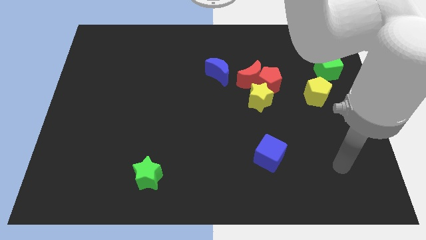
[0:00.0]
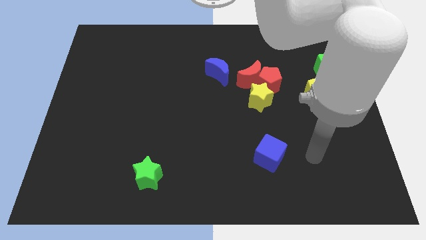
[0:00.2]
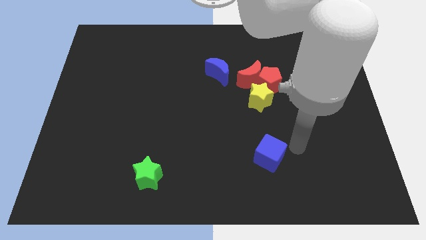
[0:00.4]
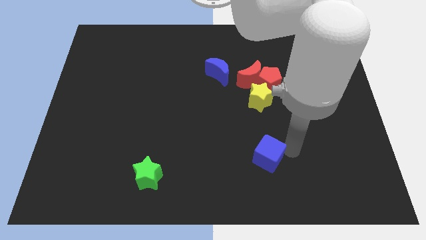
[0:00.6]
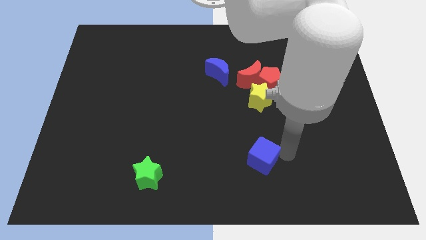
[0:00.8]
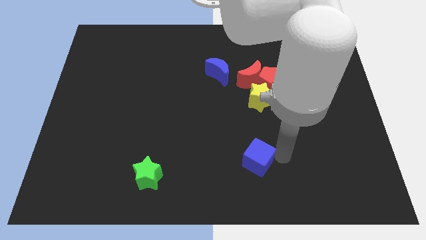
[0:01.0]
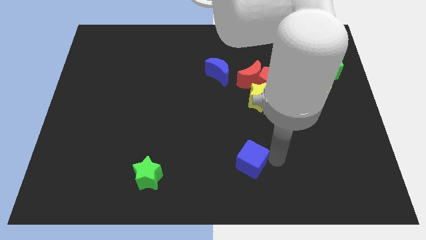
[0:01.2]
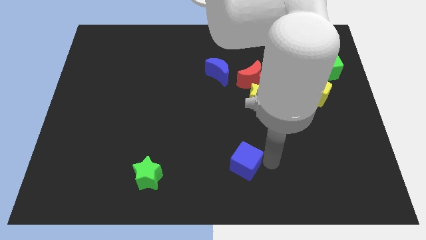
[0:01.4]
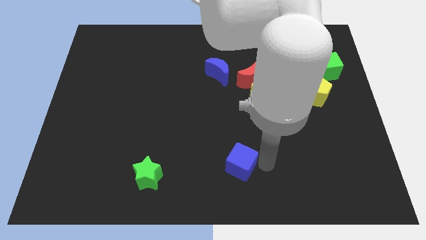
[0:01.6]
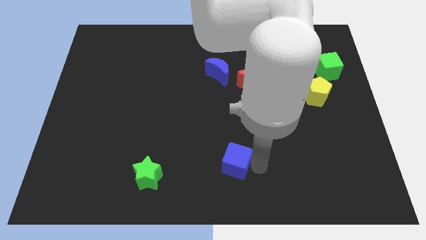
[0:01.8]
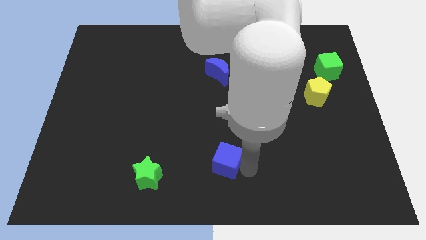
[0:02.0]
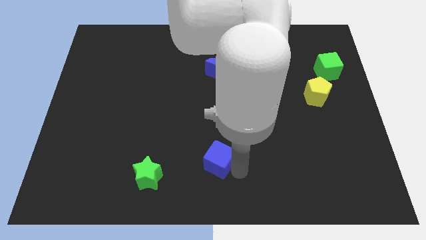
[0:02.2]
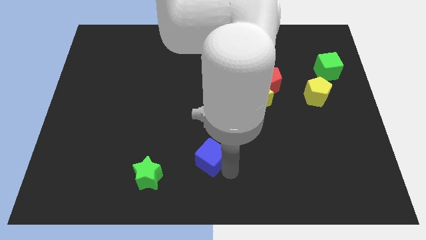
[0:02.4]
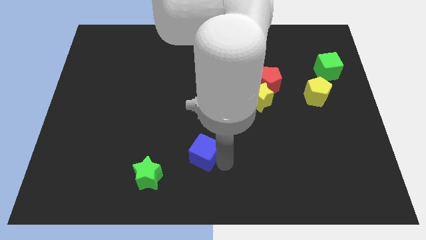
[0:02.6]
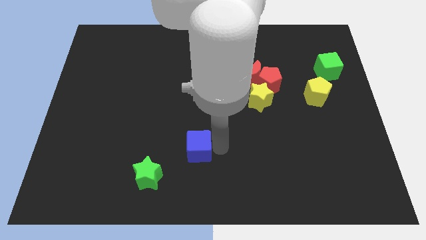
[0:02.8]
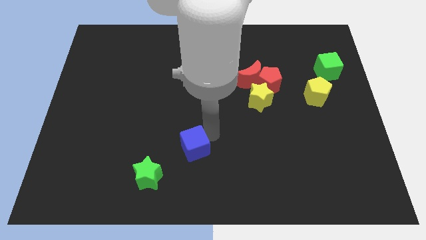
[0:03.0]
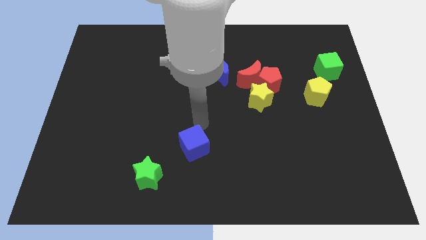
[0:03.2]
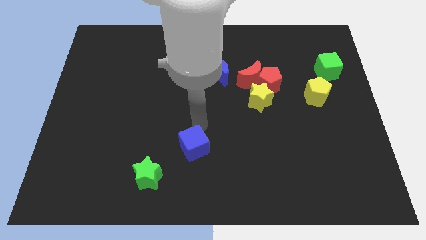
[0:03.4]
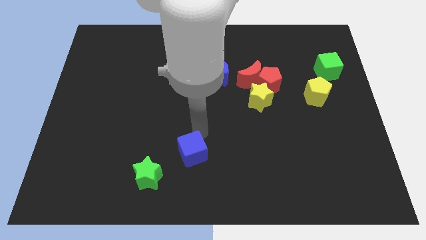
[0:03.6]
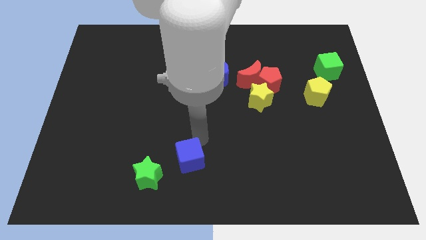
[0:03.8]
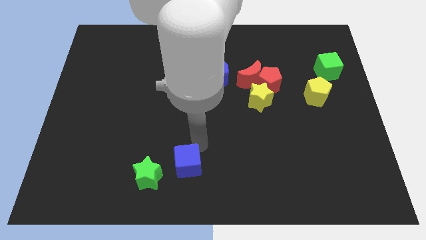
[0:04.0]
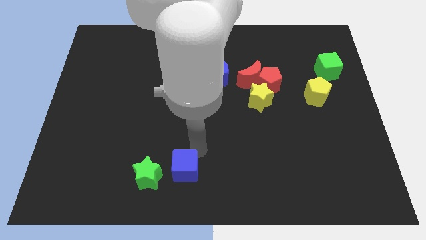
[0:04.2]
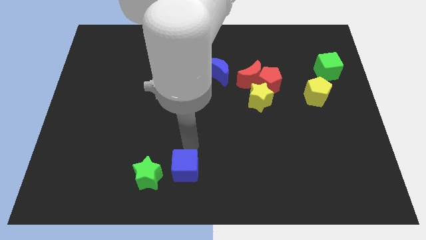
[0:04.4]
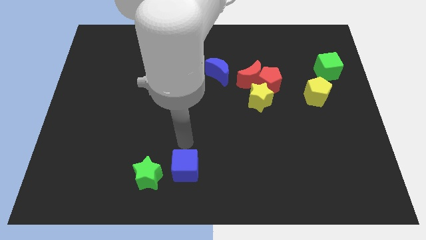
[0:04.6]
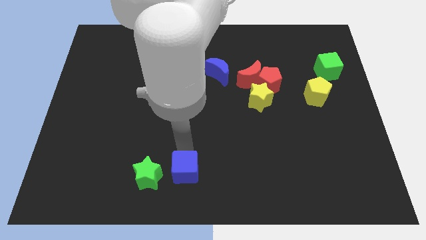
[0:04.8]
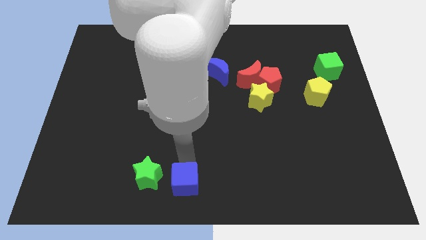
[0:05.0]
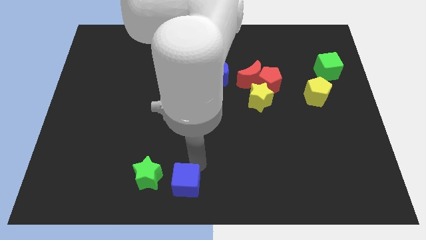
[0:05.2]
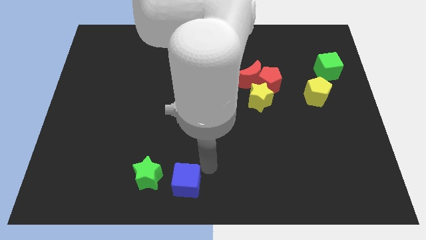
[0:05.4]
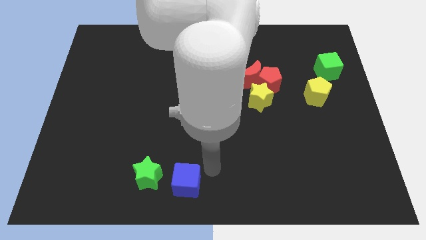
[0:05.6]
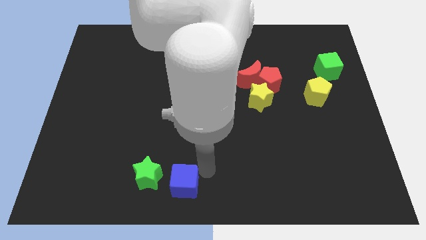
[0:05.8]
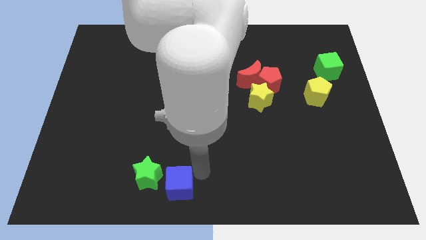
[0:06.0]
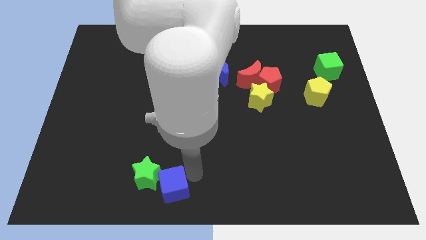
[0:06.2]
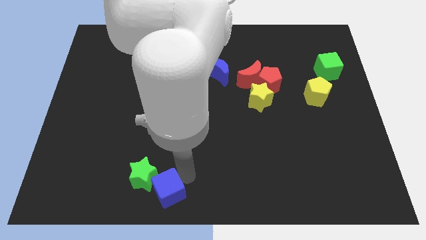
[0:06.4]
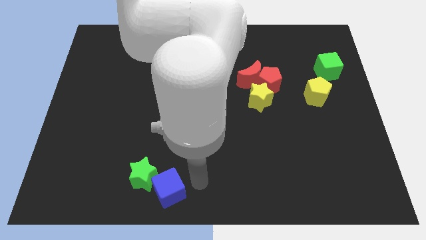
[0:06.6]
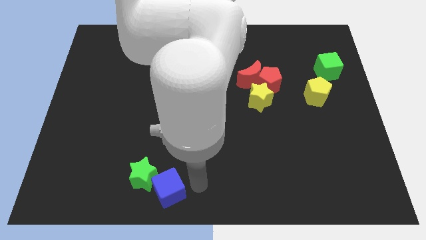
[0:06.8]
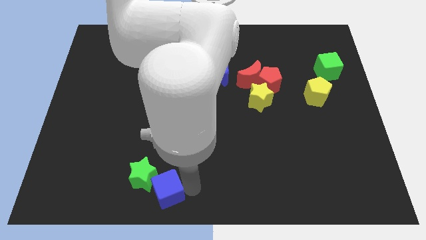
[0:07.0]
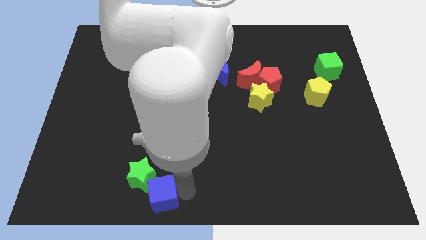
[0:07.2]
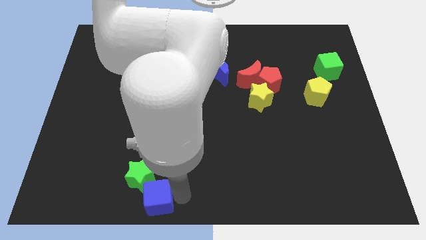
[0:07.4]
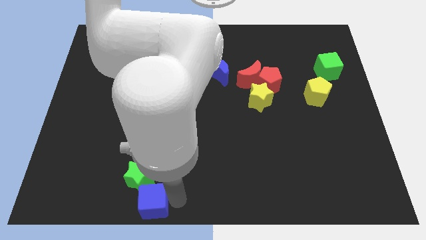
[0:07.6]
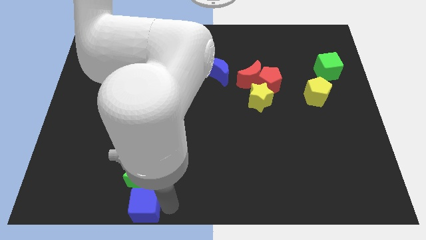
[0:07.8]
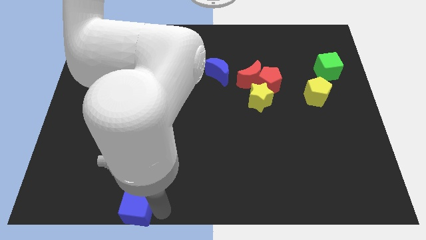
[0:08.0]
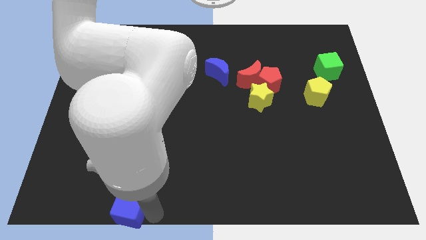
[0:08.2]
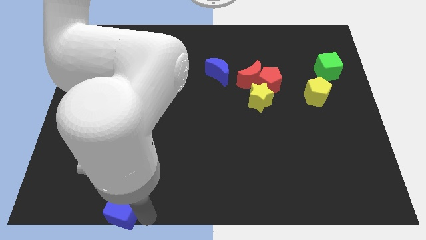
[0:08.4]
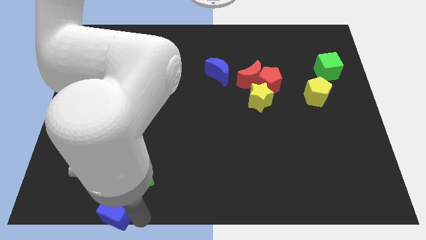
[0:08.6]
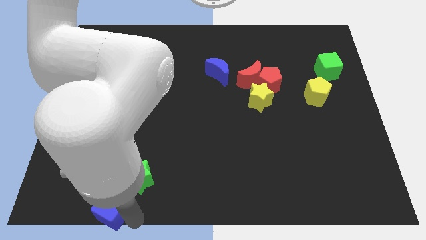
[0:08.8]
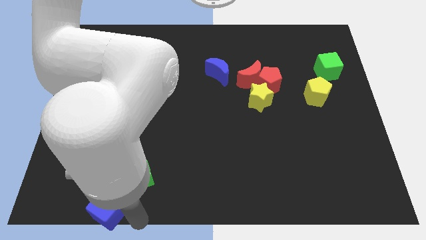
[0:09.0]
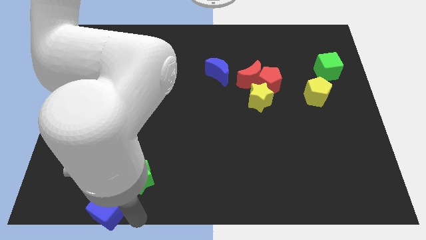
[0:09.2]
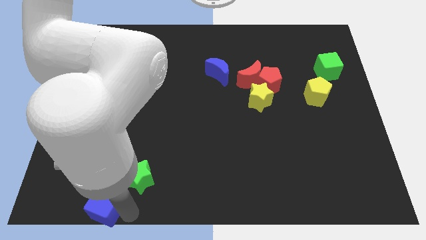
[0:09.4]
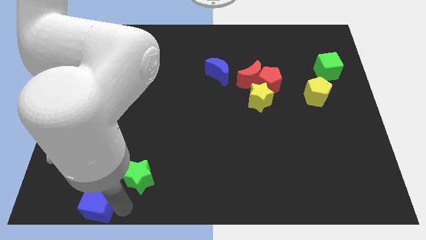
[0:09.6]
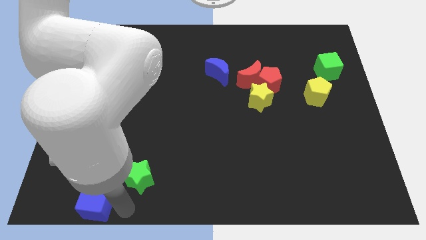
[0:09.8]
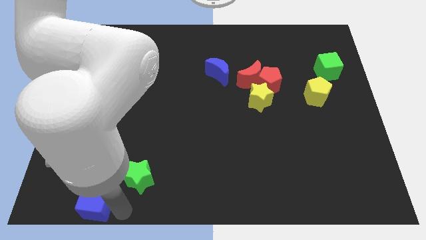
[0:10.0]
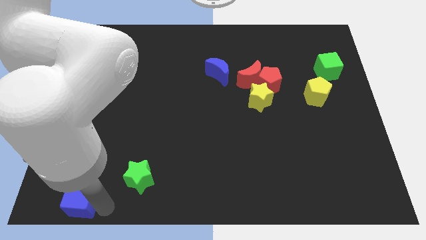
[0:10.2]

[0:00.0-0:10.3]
move the blue cube to the lower left corner

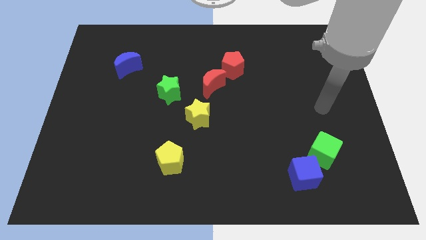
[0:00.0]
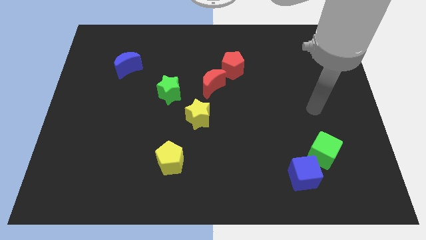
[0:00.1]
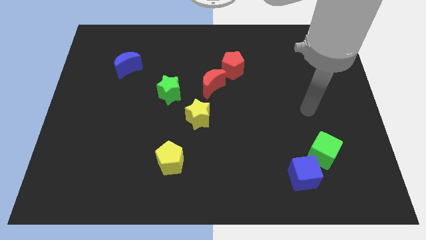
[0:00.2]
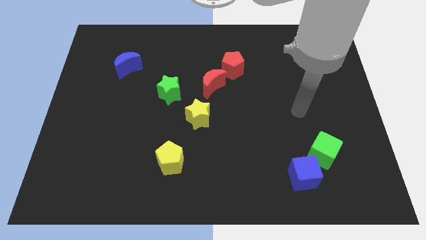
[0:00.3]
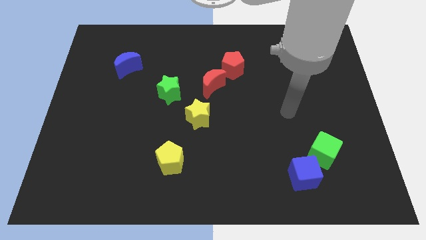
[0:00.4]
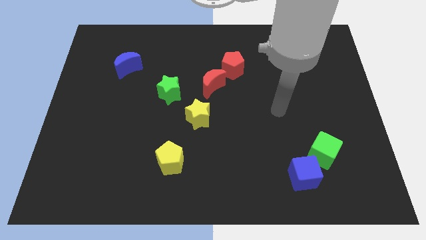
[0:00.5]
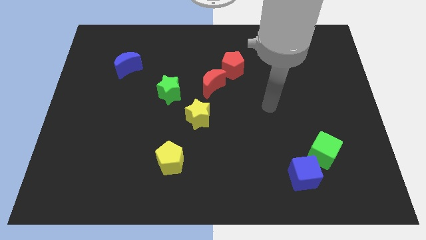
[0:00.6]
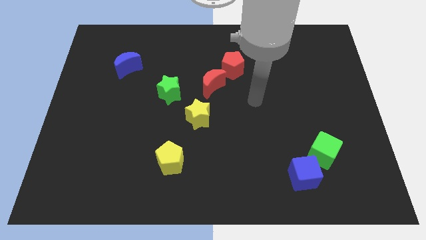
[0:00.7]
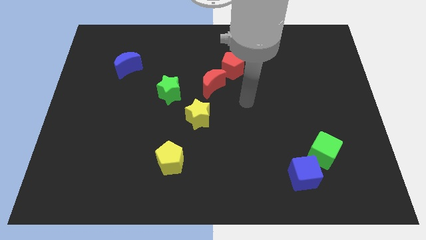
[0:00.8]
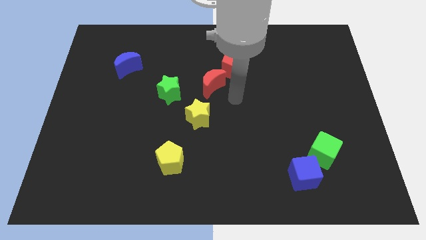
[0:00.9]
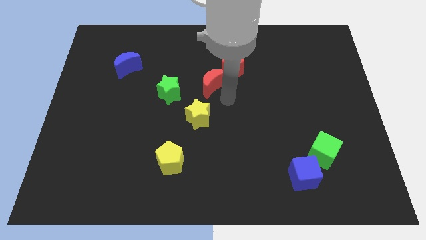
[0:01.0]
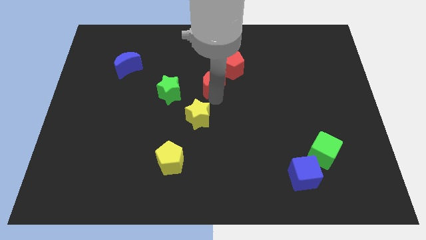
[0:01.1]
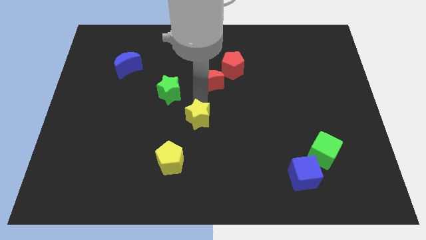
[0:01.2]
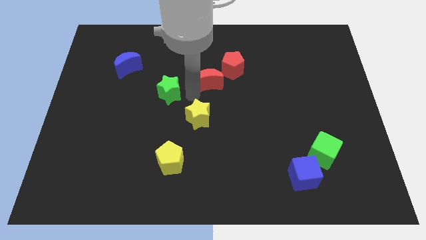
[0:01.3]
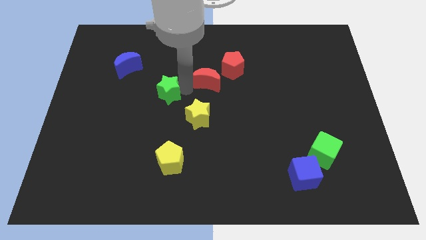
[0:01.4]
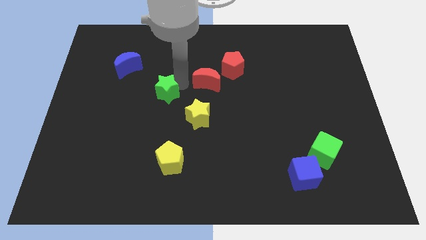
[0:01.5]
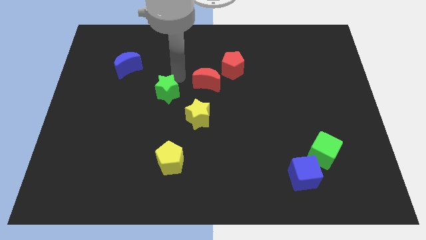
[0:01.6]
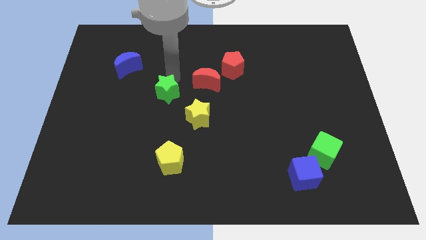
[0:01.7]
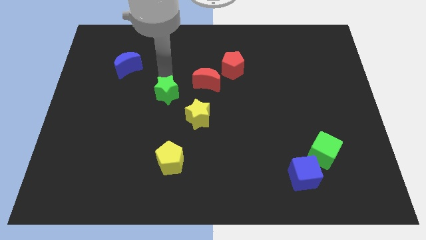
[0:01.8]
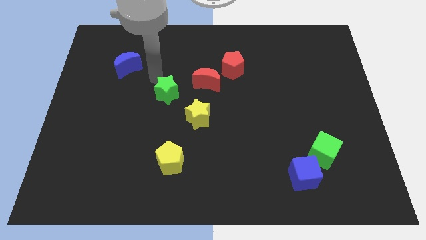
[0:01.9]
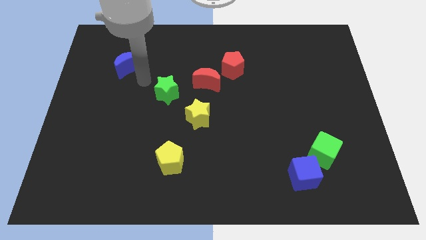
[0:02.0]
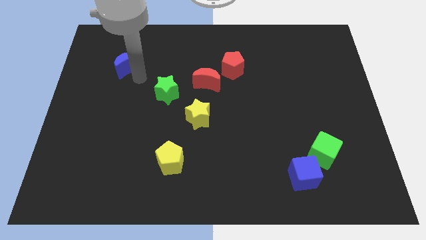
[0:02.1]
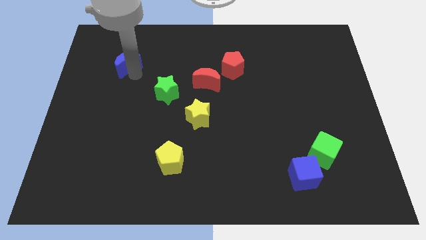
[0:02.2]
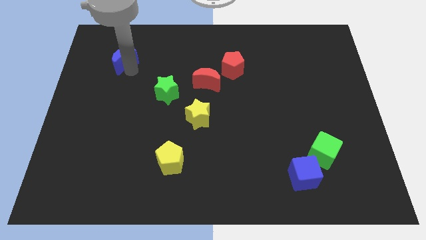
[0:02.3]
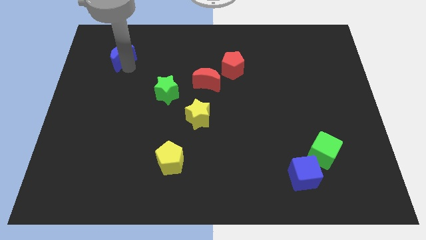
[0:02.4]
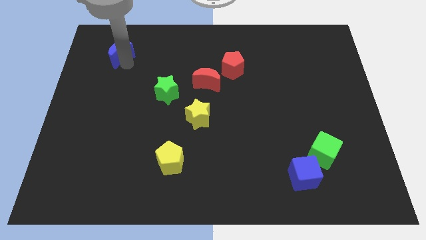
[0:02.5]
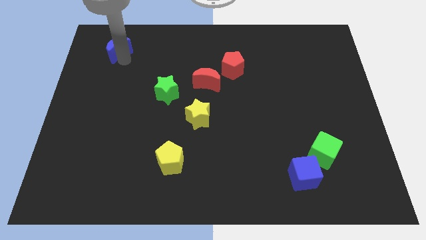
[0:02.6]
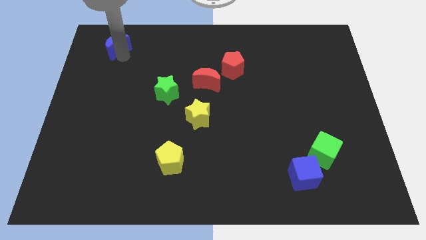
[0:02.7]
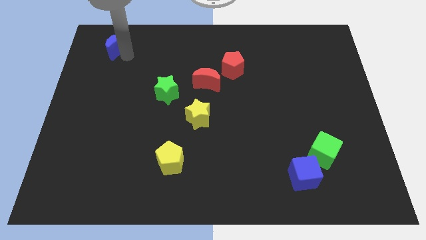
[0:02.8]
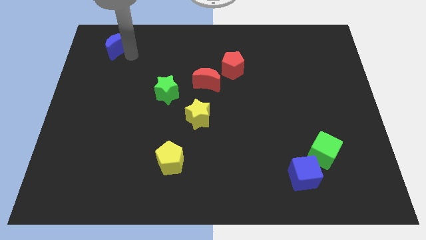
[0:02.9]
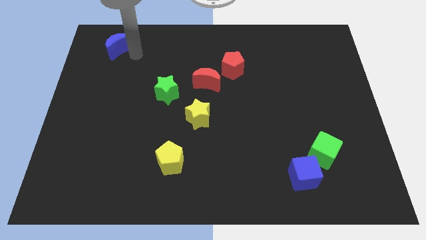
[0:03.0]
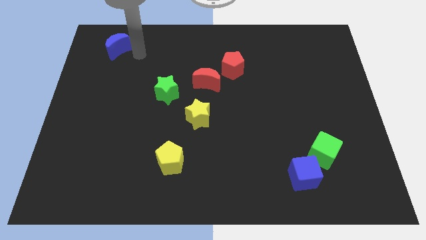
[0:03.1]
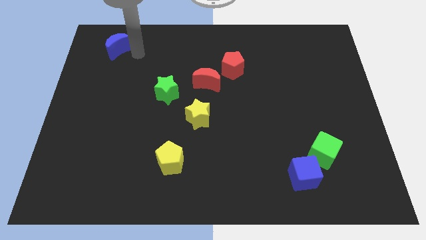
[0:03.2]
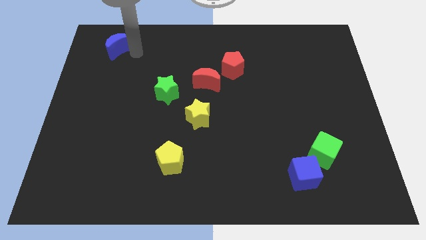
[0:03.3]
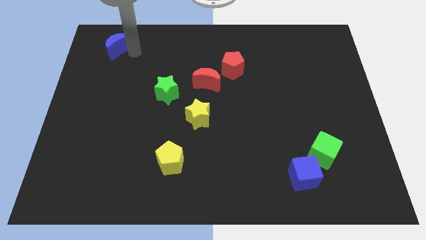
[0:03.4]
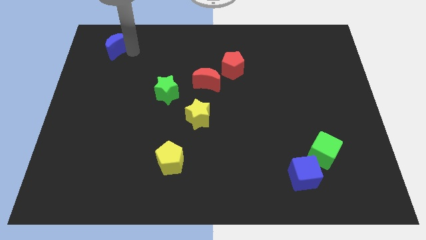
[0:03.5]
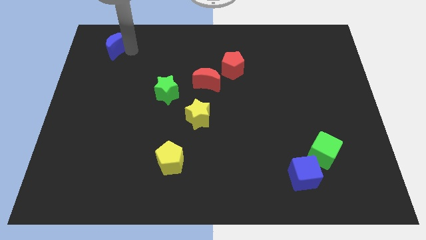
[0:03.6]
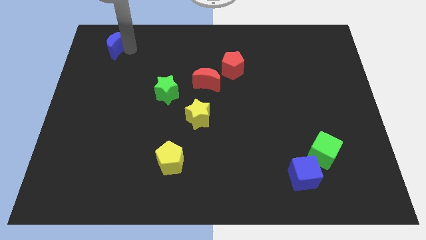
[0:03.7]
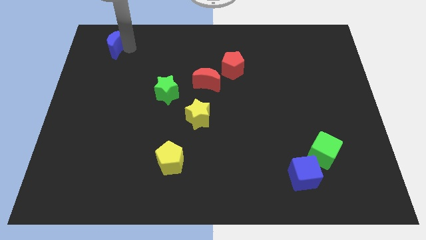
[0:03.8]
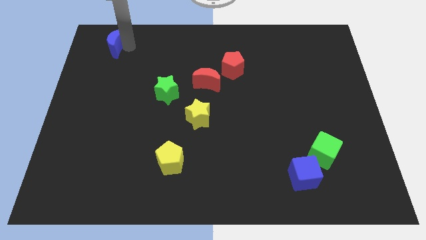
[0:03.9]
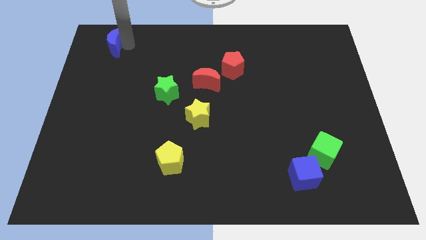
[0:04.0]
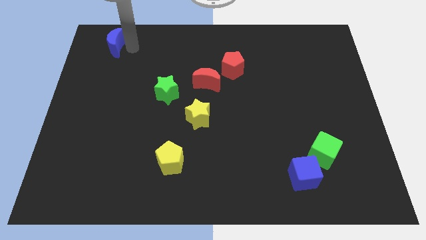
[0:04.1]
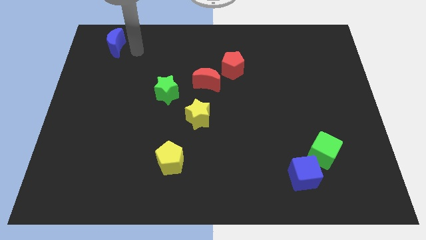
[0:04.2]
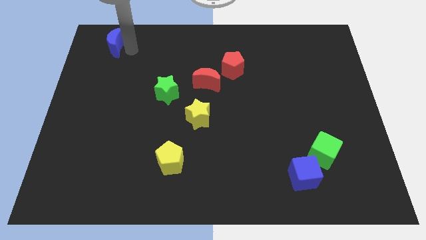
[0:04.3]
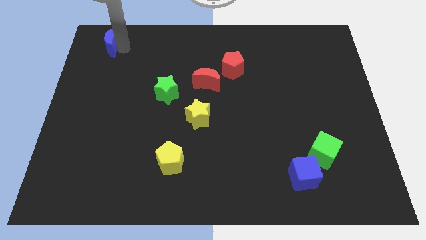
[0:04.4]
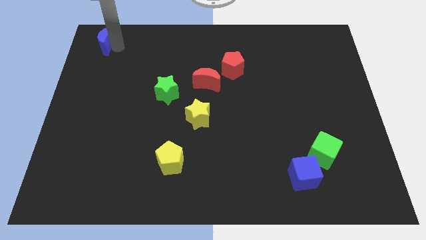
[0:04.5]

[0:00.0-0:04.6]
push the blue moon to the upper left corner
